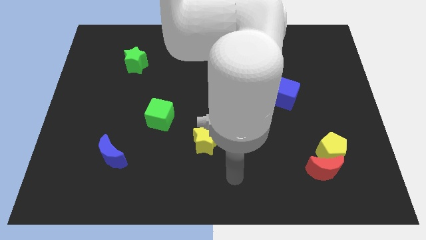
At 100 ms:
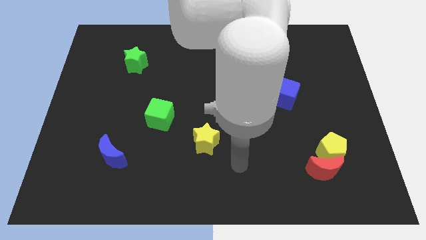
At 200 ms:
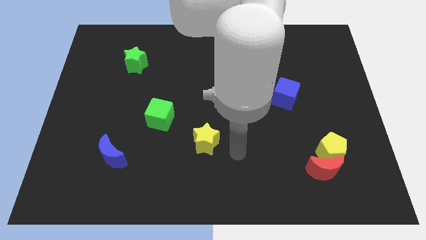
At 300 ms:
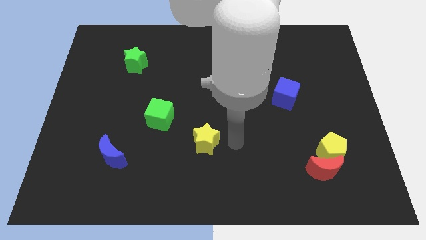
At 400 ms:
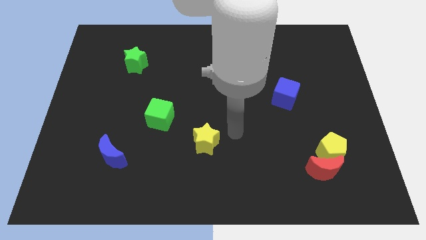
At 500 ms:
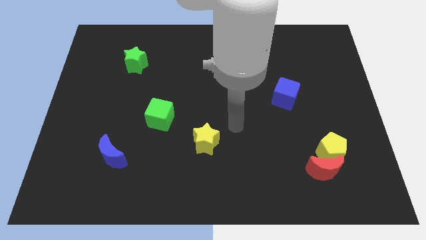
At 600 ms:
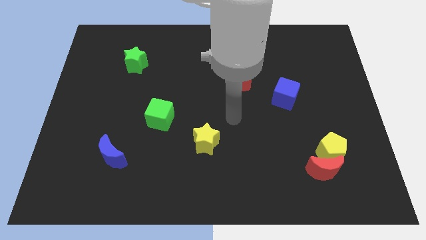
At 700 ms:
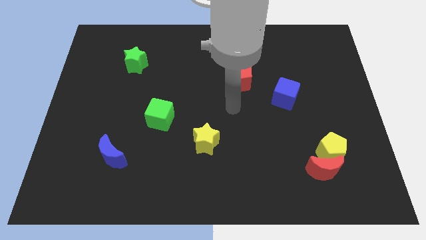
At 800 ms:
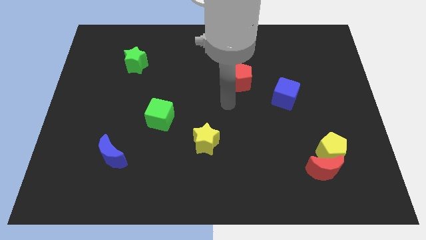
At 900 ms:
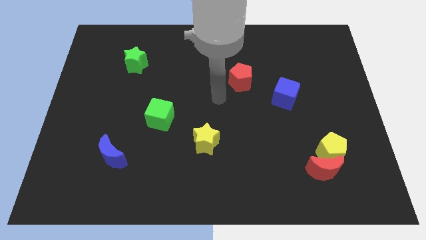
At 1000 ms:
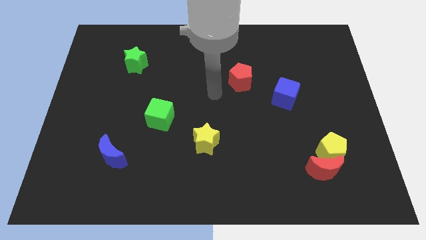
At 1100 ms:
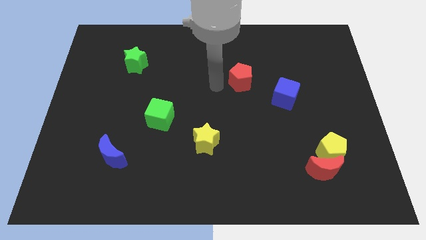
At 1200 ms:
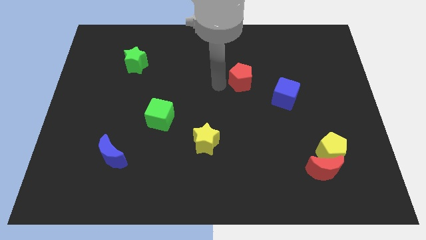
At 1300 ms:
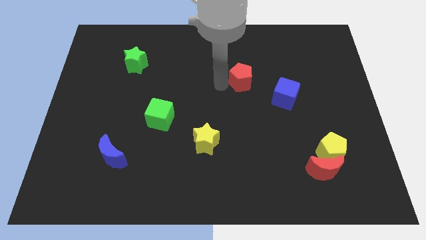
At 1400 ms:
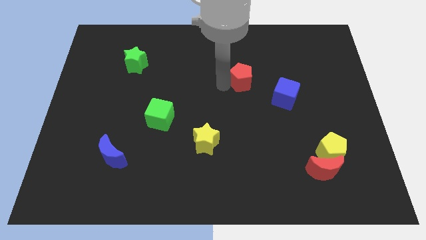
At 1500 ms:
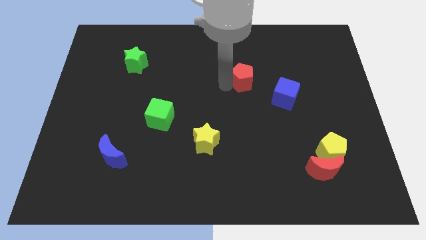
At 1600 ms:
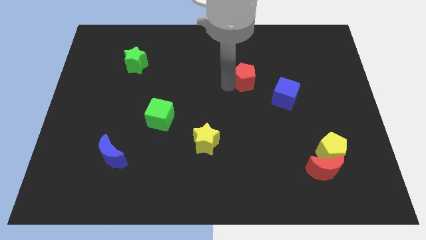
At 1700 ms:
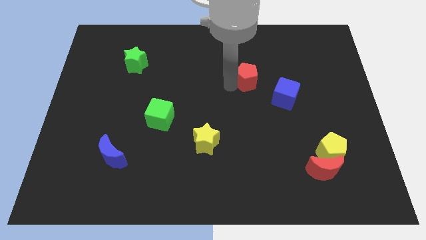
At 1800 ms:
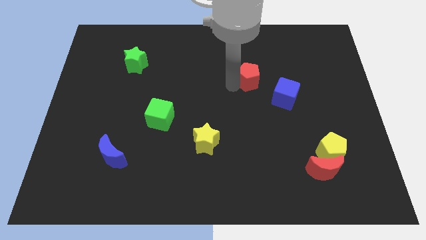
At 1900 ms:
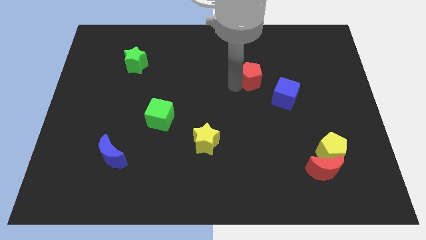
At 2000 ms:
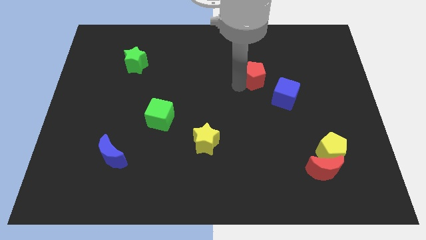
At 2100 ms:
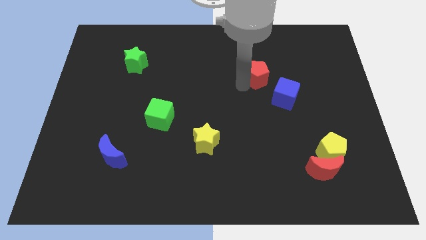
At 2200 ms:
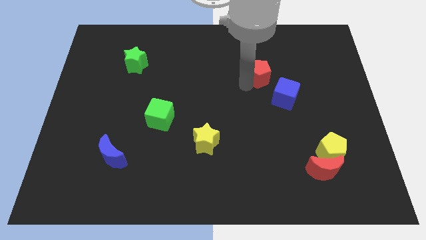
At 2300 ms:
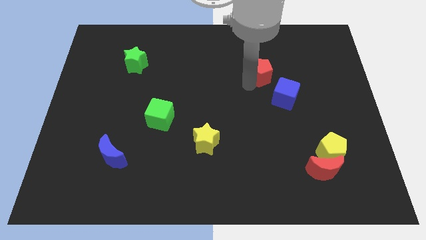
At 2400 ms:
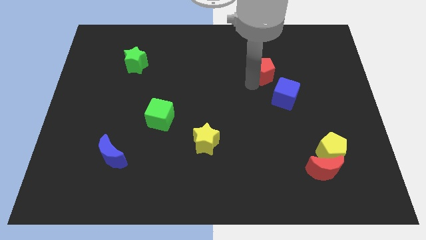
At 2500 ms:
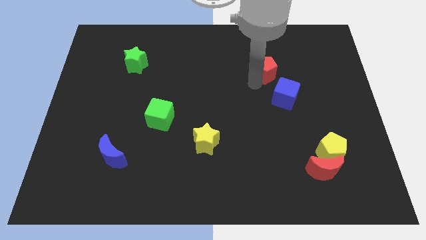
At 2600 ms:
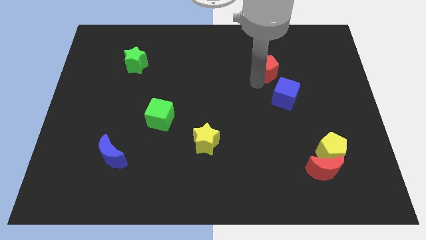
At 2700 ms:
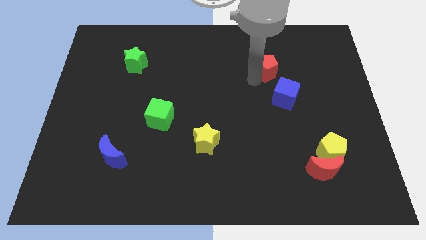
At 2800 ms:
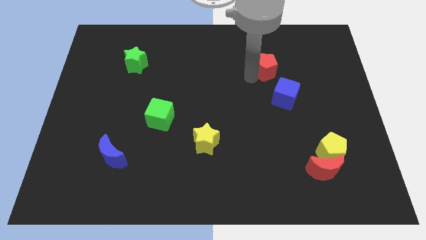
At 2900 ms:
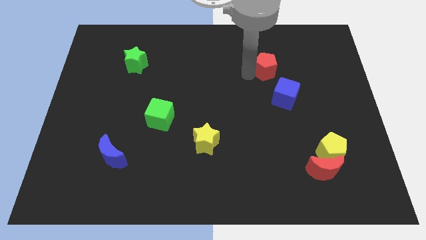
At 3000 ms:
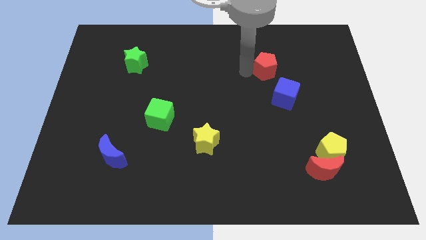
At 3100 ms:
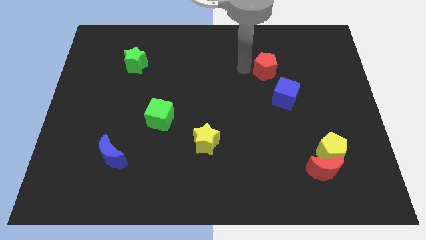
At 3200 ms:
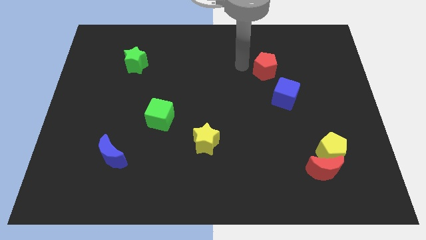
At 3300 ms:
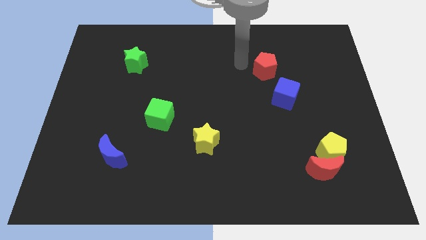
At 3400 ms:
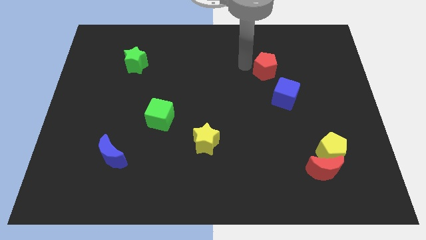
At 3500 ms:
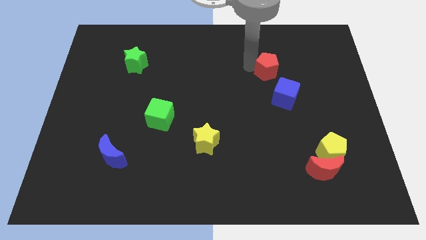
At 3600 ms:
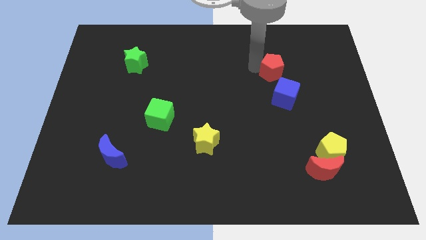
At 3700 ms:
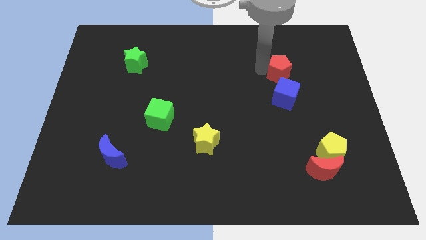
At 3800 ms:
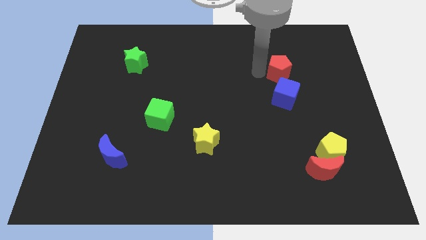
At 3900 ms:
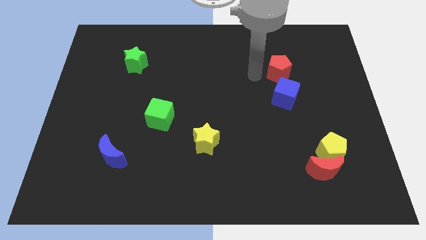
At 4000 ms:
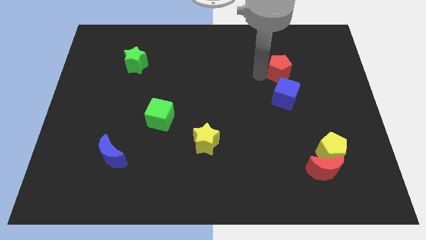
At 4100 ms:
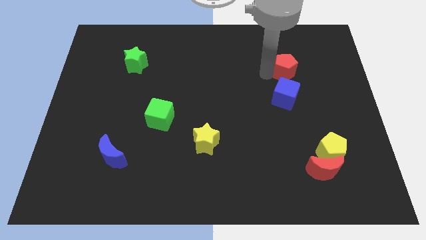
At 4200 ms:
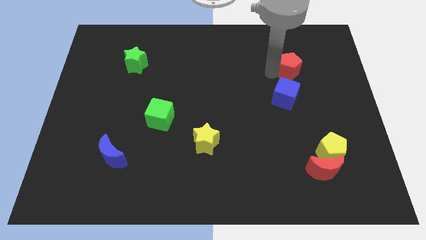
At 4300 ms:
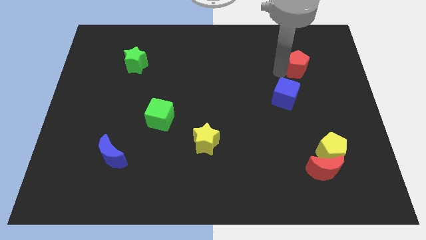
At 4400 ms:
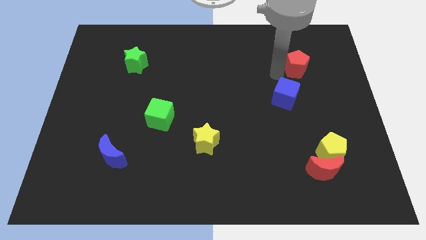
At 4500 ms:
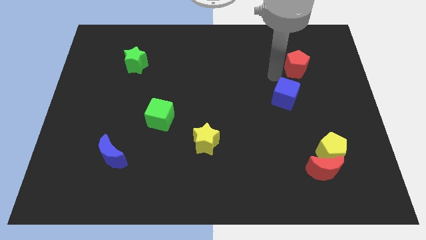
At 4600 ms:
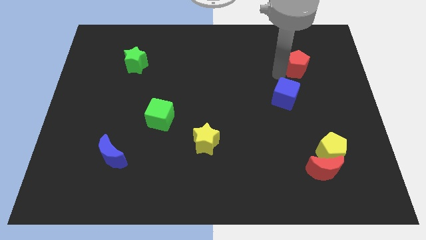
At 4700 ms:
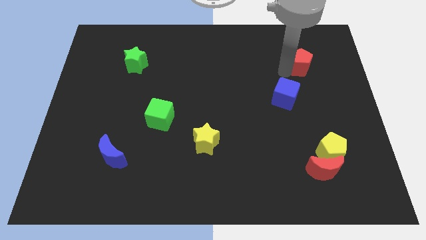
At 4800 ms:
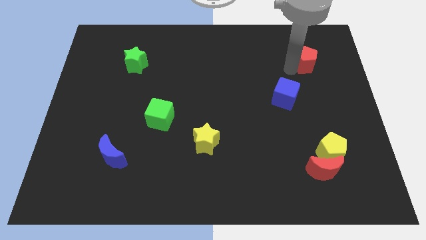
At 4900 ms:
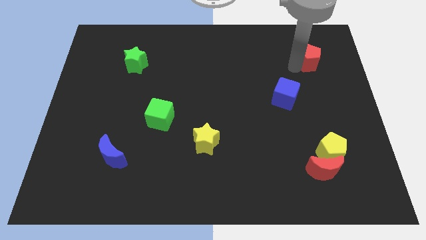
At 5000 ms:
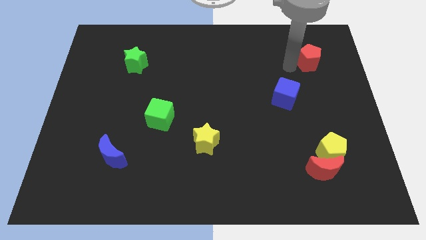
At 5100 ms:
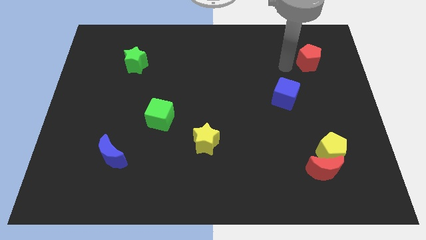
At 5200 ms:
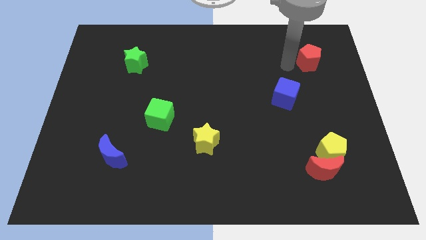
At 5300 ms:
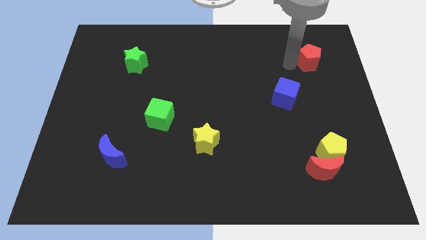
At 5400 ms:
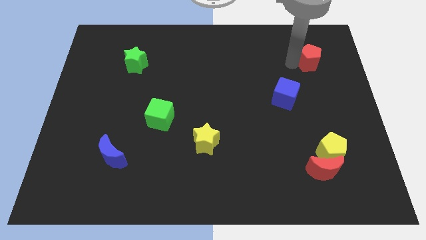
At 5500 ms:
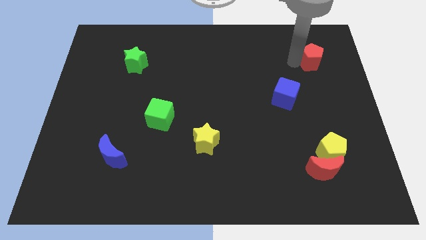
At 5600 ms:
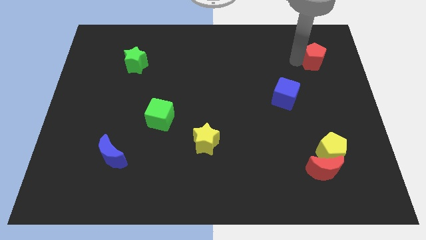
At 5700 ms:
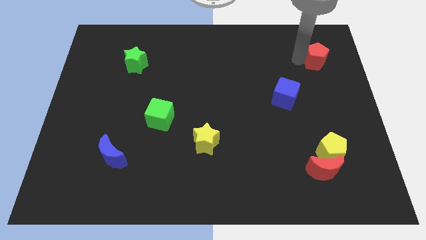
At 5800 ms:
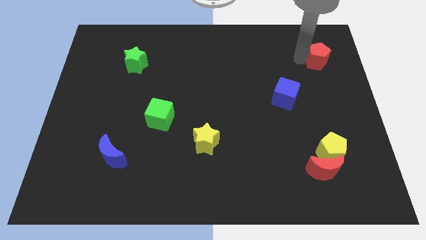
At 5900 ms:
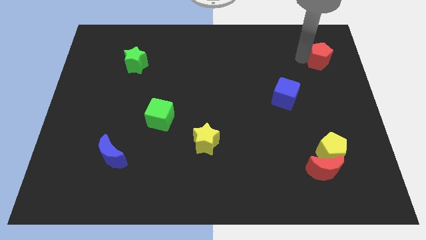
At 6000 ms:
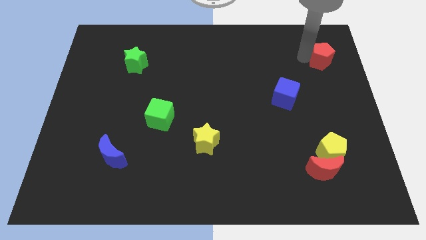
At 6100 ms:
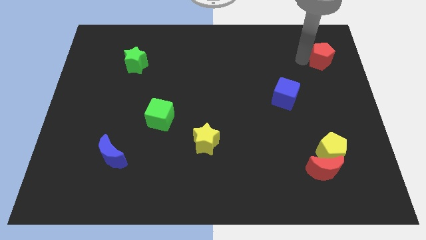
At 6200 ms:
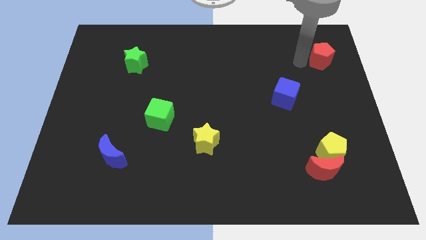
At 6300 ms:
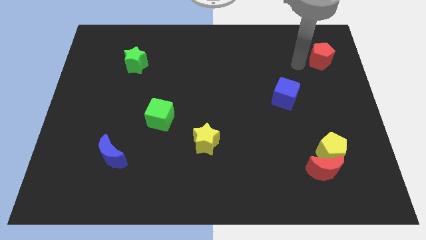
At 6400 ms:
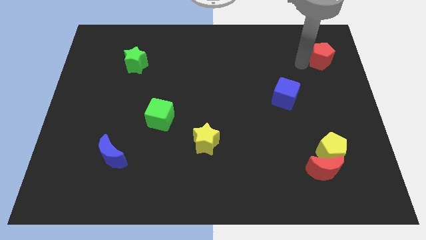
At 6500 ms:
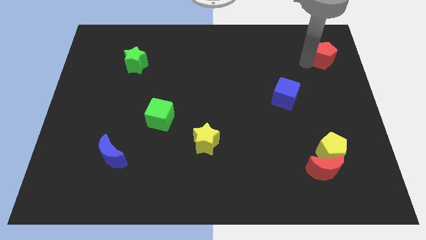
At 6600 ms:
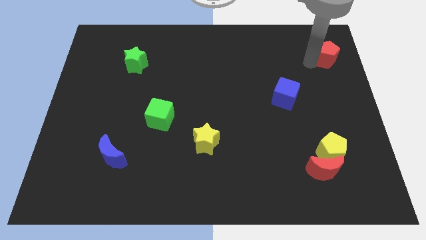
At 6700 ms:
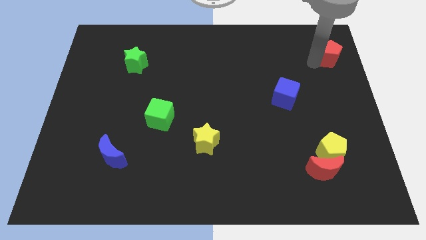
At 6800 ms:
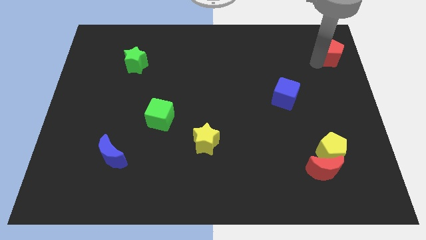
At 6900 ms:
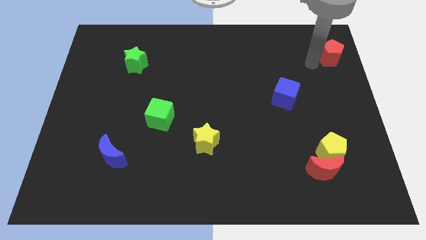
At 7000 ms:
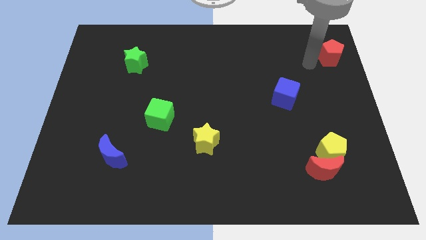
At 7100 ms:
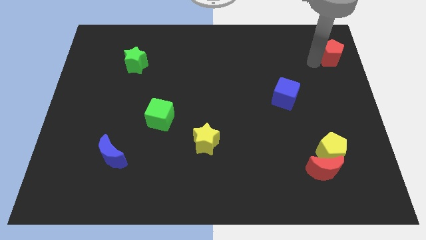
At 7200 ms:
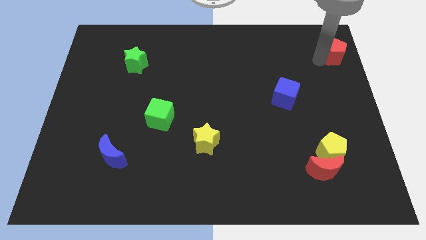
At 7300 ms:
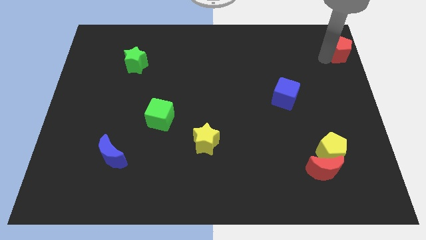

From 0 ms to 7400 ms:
slide the red pentagon to the top right corner
